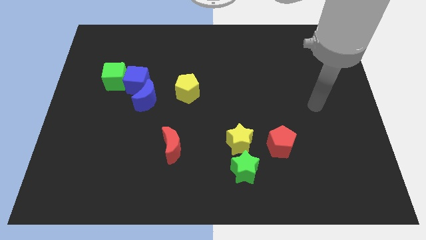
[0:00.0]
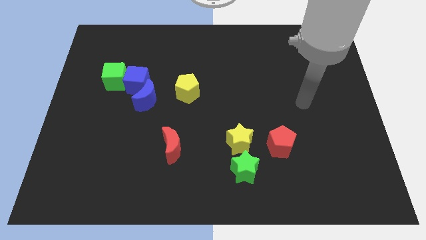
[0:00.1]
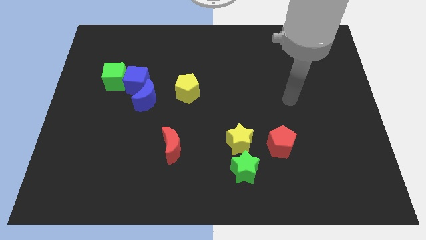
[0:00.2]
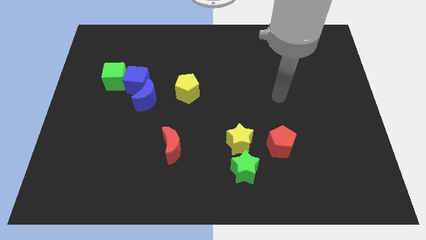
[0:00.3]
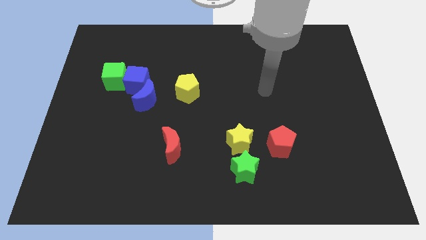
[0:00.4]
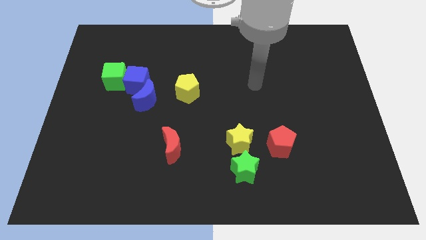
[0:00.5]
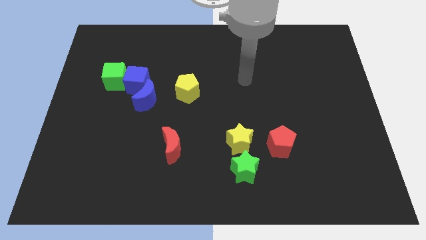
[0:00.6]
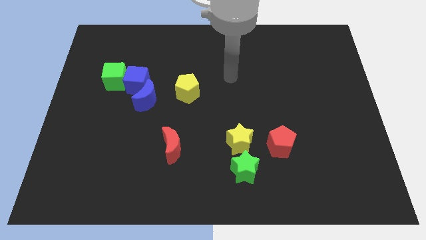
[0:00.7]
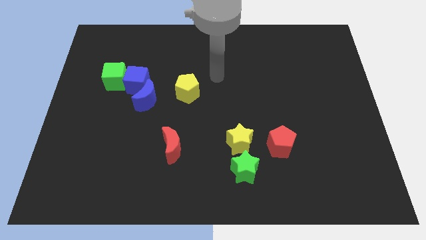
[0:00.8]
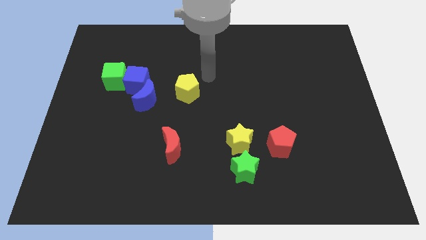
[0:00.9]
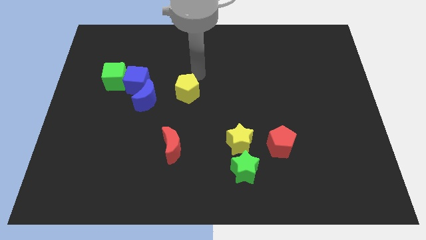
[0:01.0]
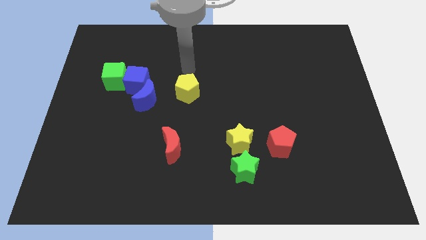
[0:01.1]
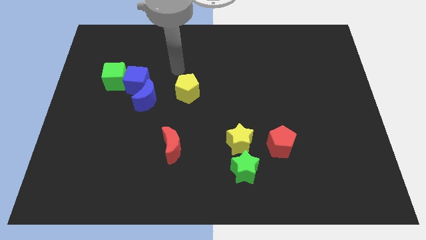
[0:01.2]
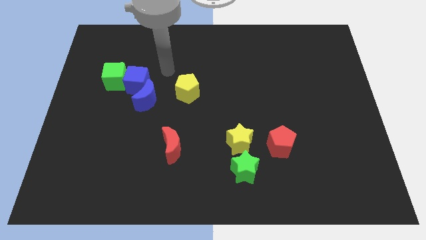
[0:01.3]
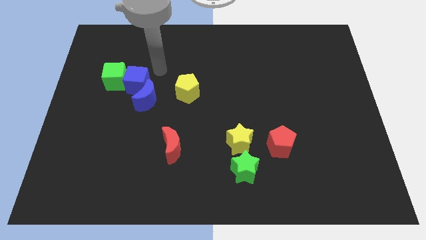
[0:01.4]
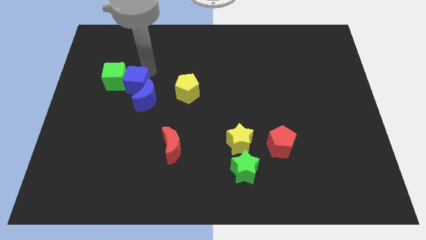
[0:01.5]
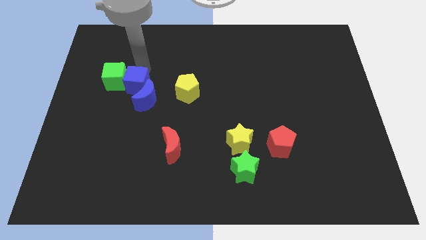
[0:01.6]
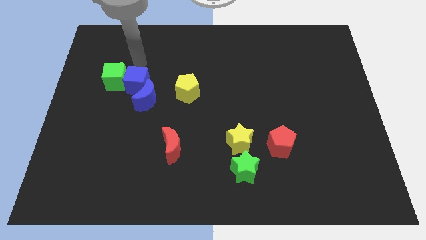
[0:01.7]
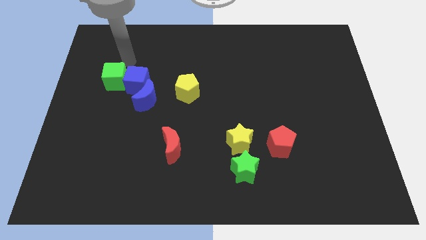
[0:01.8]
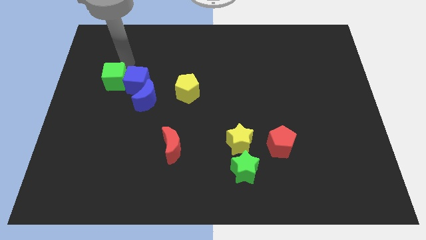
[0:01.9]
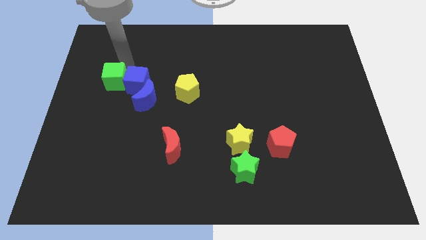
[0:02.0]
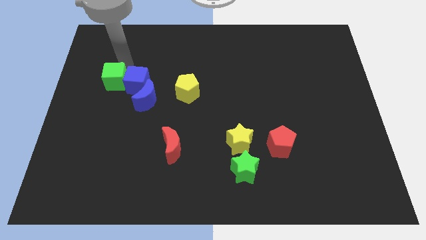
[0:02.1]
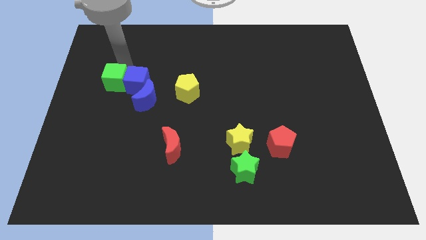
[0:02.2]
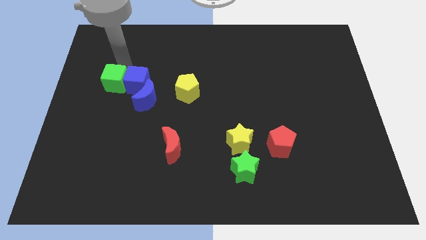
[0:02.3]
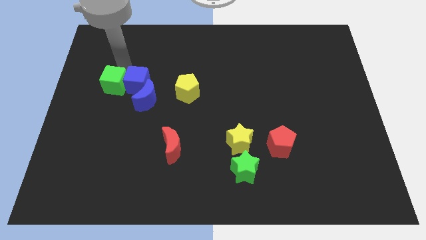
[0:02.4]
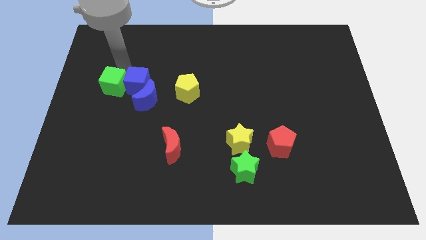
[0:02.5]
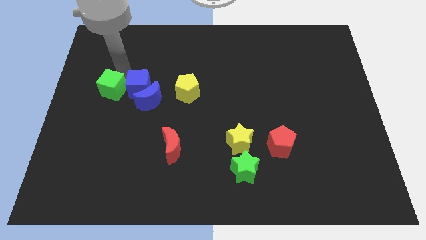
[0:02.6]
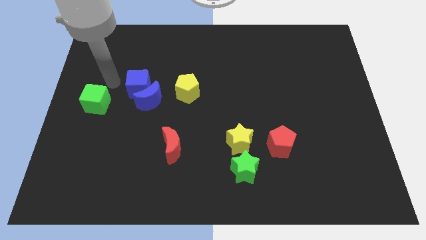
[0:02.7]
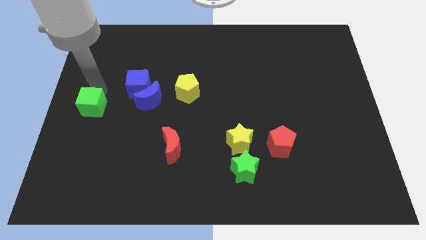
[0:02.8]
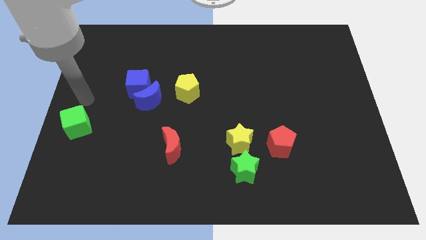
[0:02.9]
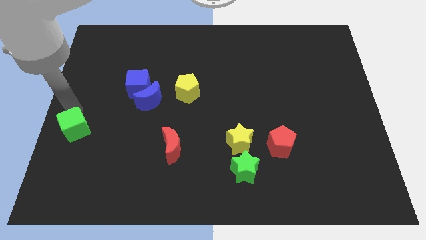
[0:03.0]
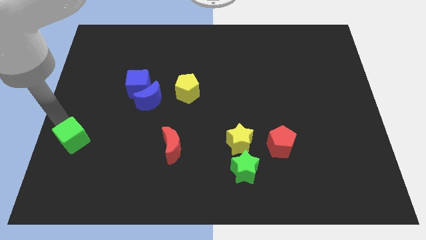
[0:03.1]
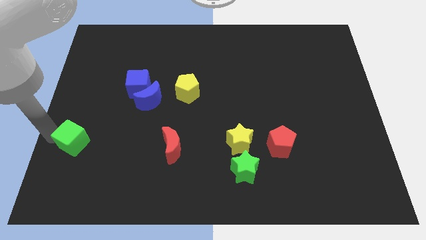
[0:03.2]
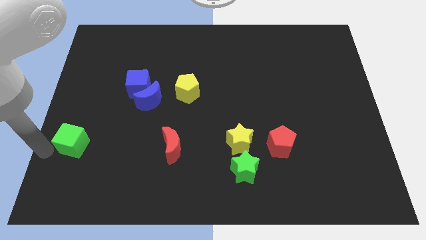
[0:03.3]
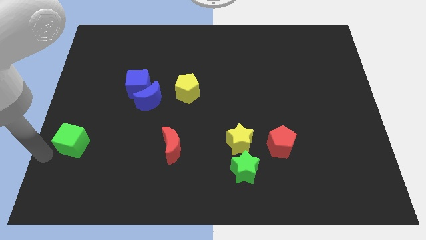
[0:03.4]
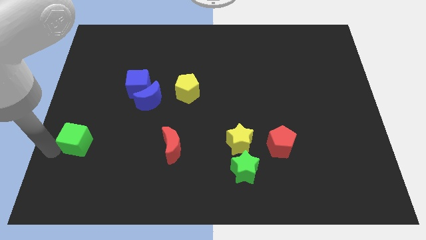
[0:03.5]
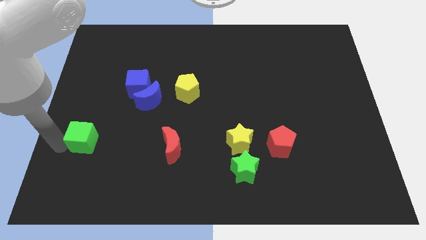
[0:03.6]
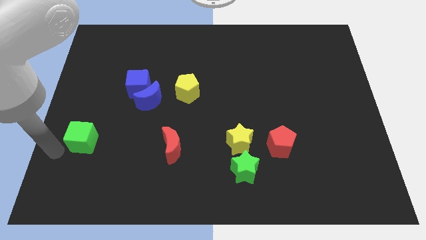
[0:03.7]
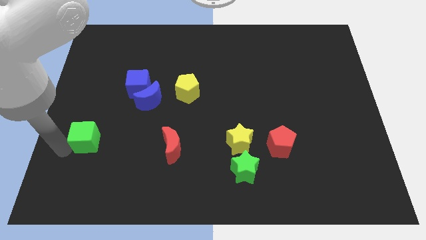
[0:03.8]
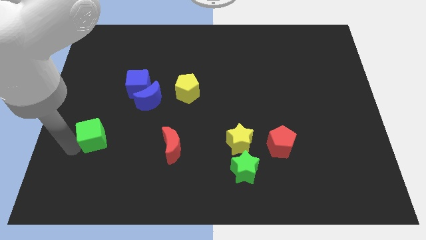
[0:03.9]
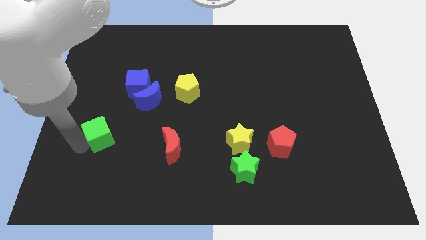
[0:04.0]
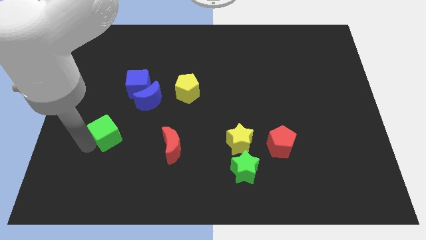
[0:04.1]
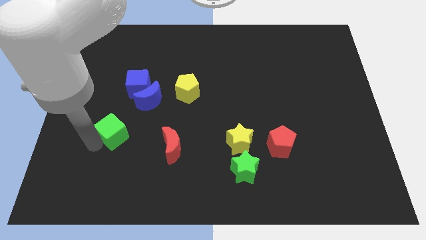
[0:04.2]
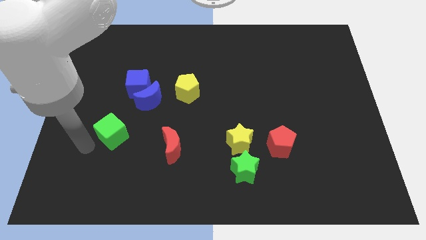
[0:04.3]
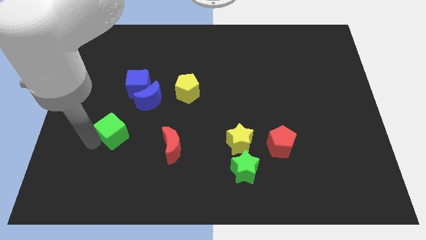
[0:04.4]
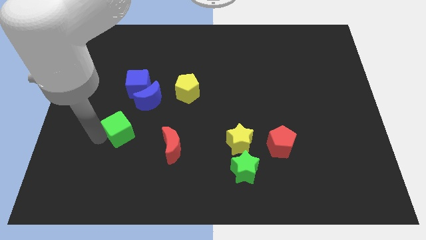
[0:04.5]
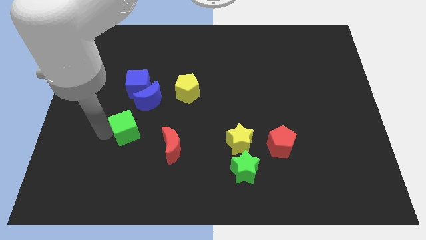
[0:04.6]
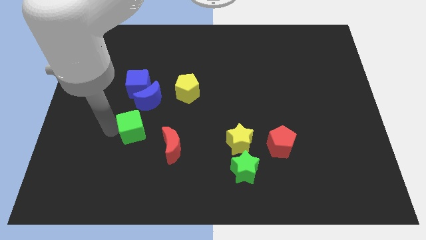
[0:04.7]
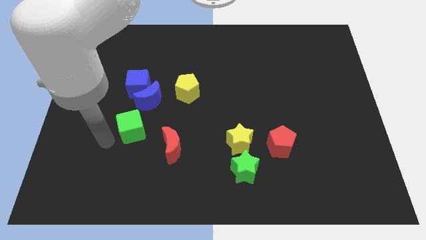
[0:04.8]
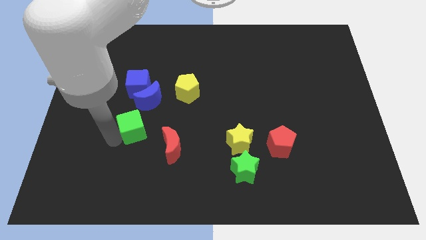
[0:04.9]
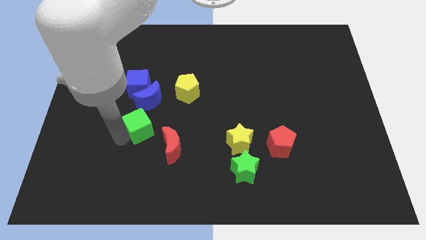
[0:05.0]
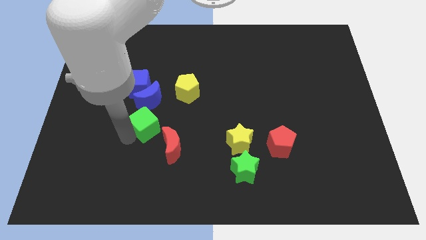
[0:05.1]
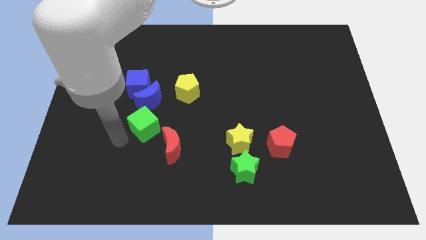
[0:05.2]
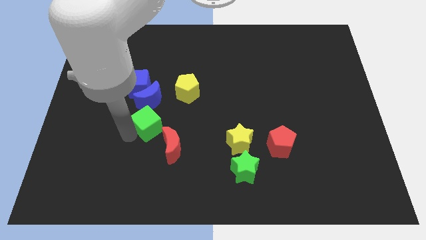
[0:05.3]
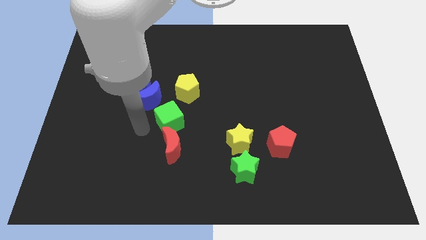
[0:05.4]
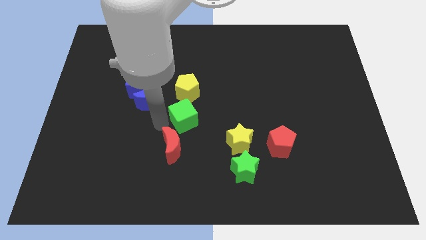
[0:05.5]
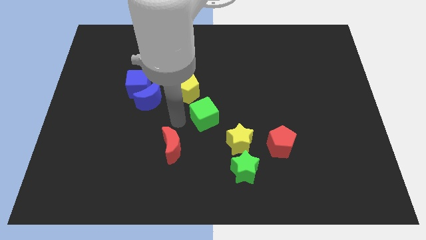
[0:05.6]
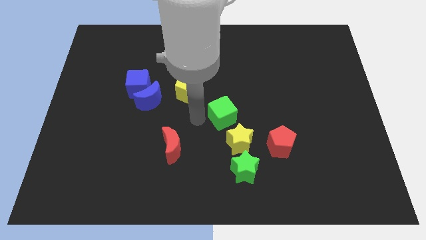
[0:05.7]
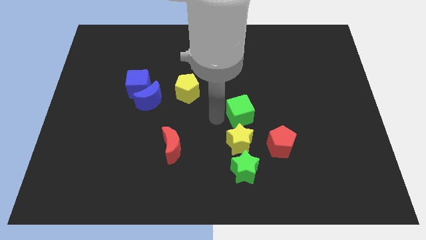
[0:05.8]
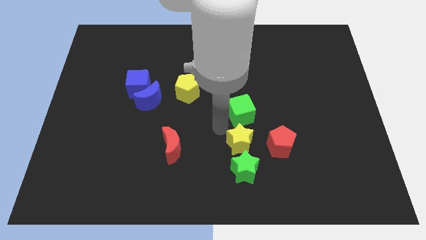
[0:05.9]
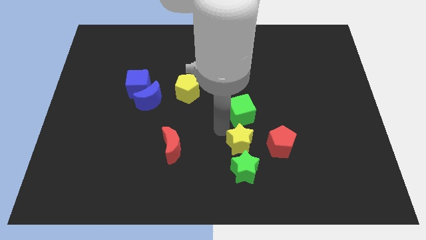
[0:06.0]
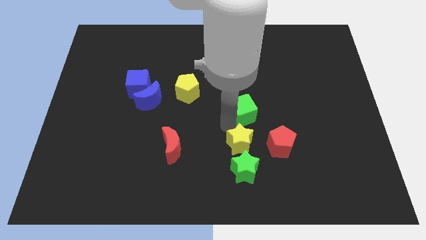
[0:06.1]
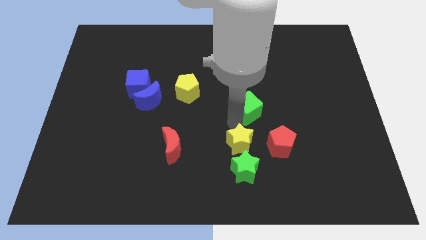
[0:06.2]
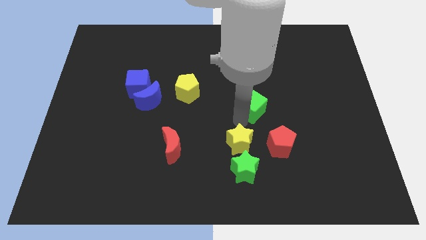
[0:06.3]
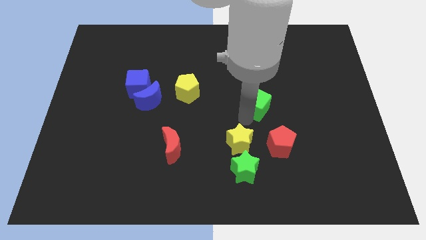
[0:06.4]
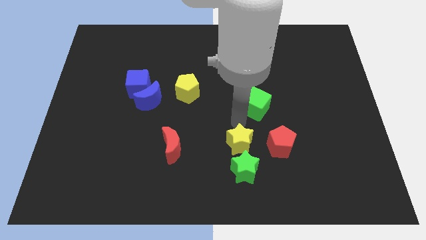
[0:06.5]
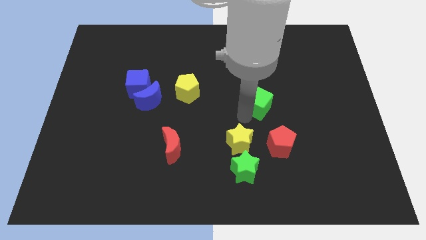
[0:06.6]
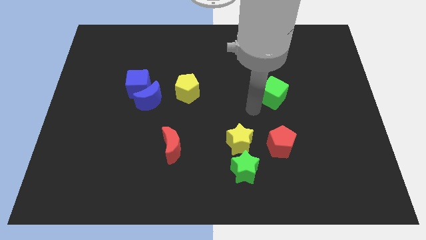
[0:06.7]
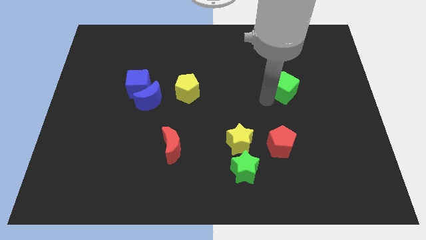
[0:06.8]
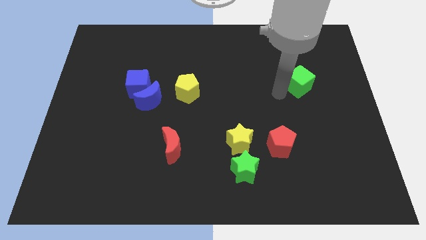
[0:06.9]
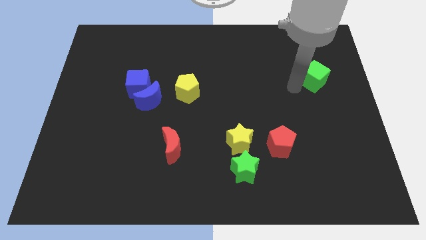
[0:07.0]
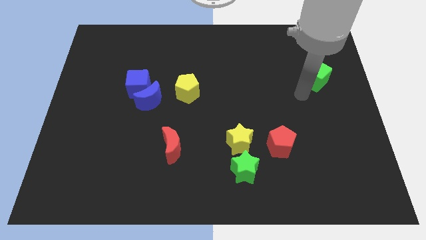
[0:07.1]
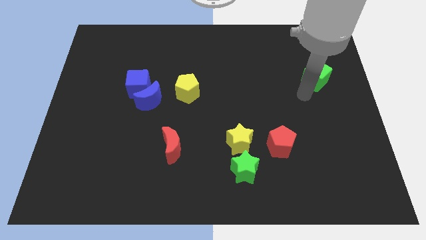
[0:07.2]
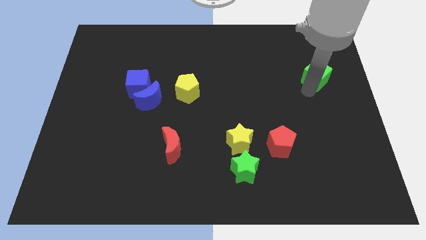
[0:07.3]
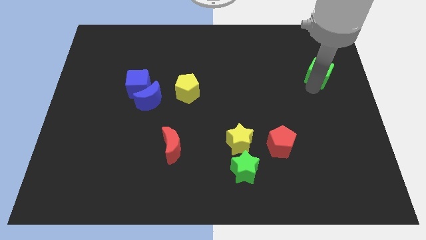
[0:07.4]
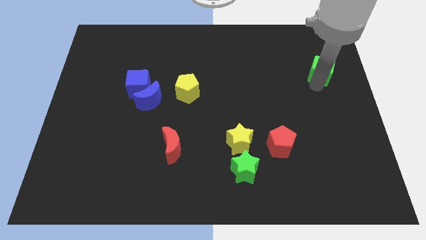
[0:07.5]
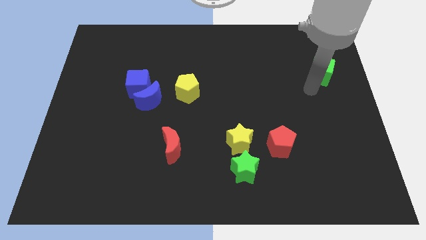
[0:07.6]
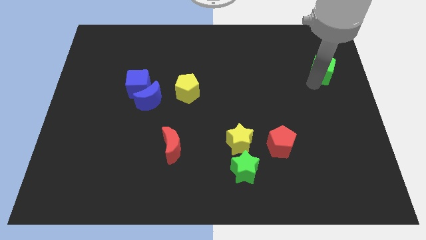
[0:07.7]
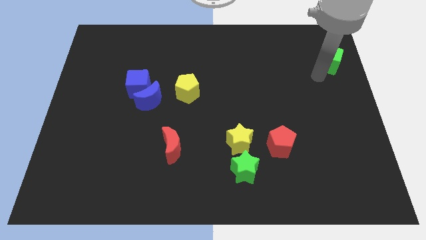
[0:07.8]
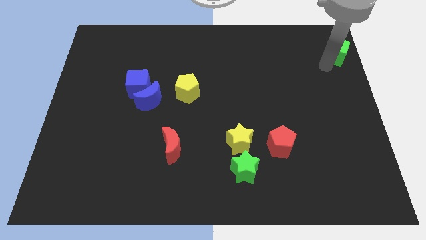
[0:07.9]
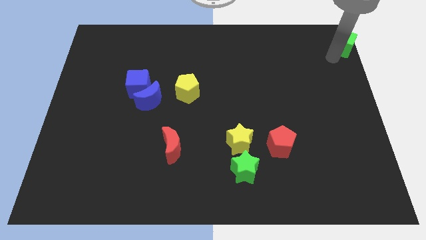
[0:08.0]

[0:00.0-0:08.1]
slide the green cube to the top right corner
